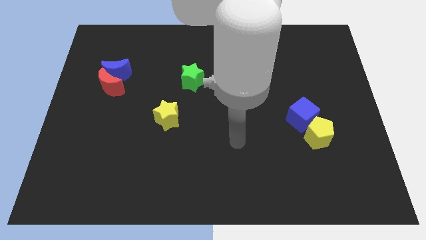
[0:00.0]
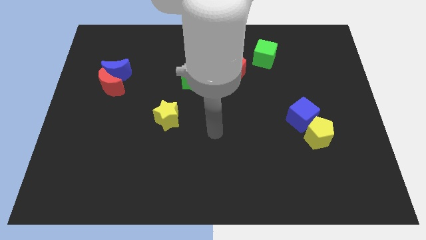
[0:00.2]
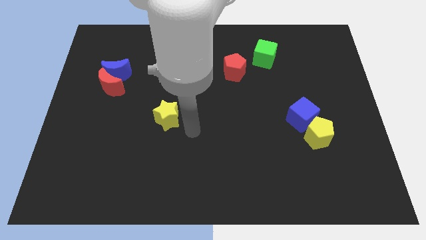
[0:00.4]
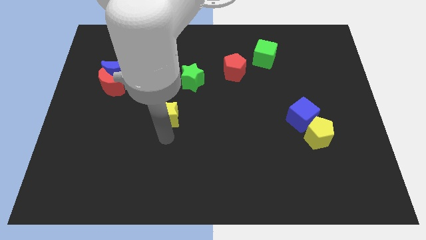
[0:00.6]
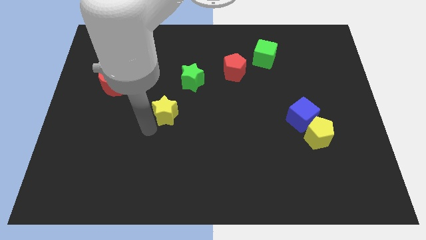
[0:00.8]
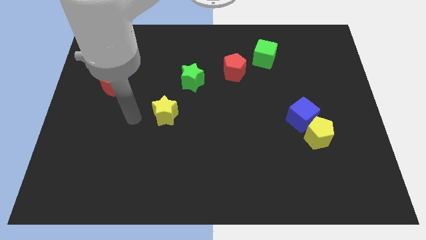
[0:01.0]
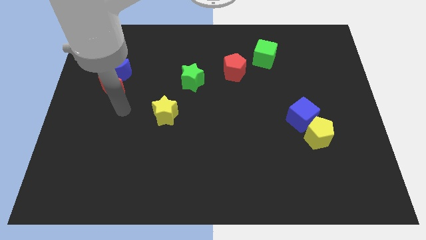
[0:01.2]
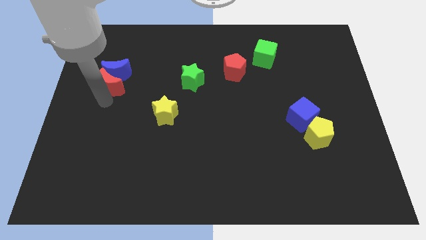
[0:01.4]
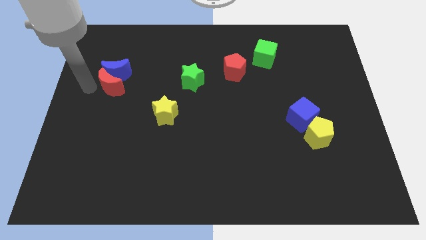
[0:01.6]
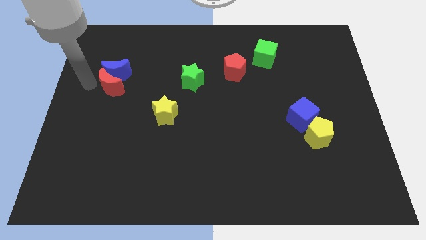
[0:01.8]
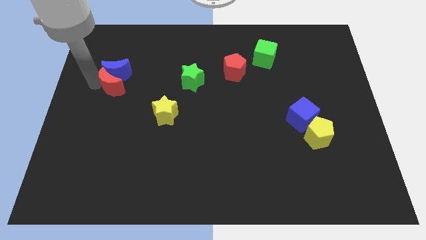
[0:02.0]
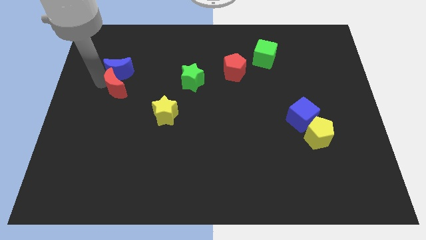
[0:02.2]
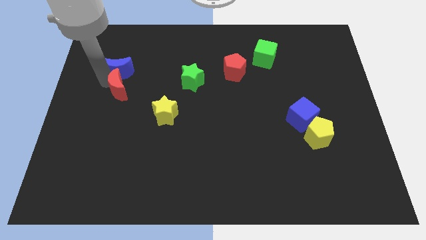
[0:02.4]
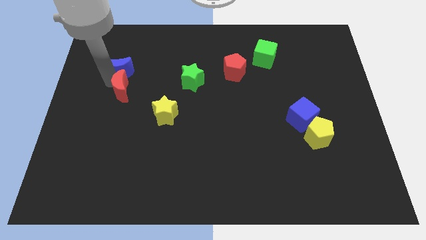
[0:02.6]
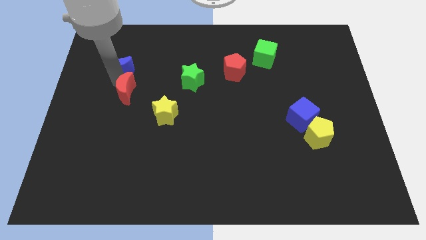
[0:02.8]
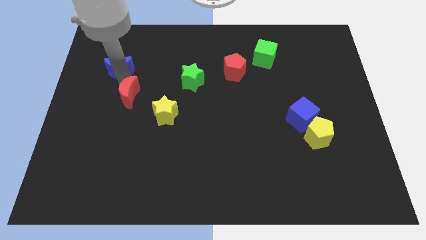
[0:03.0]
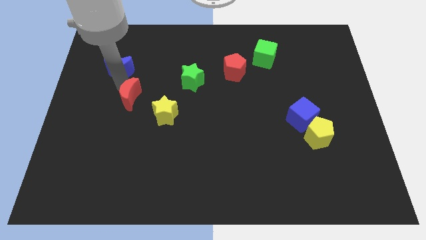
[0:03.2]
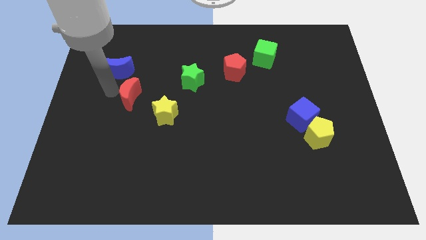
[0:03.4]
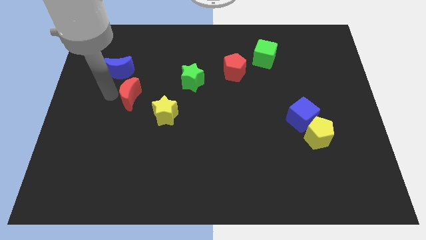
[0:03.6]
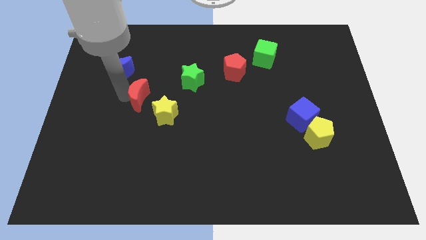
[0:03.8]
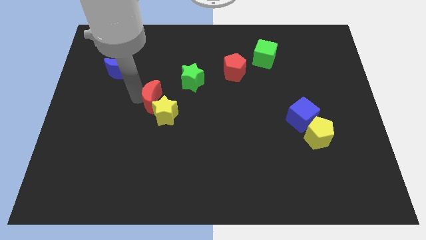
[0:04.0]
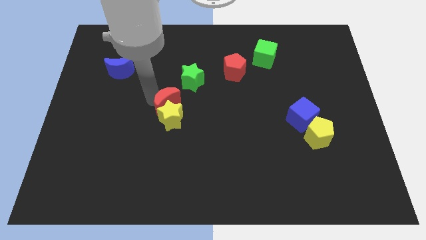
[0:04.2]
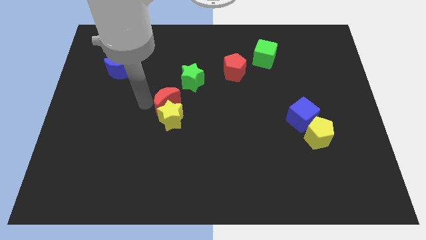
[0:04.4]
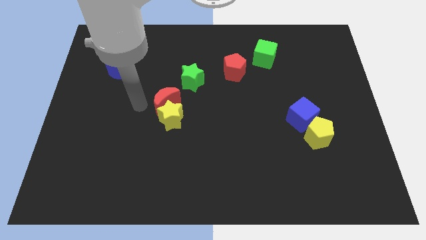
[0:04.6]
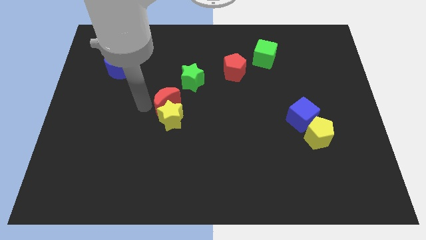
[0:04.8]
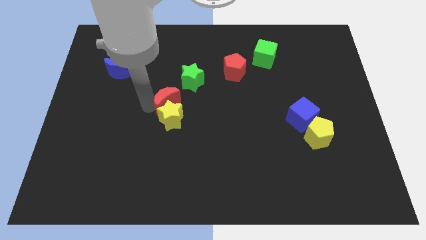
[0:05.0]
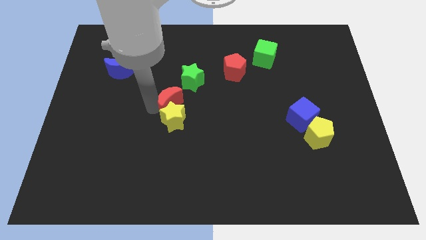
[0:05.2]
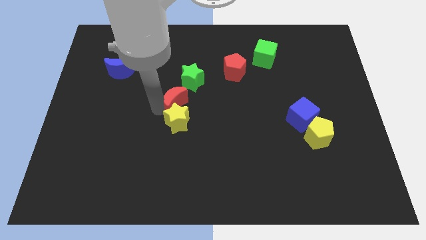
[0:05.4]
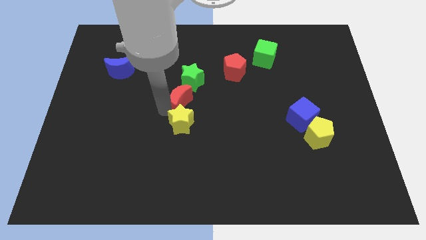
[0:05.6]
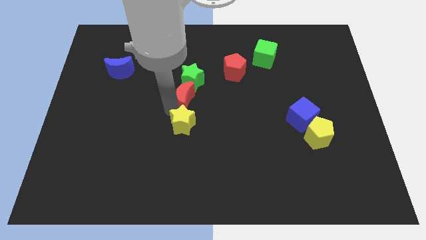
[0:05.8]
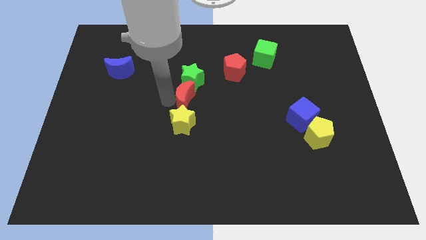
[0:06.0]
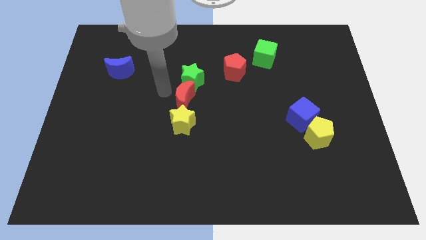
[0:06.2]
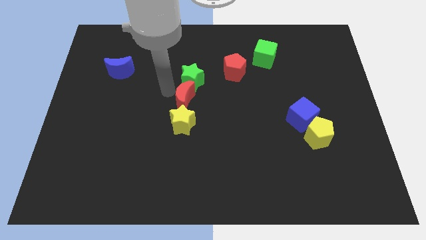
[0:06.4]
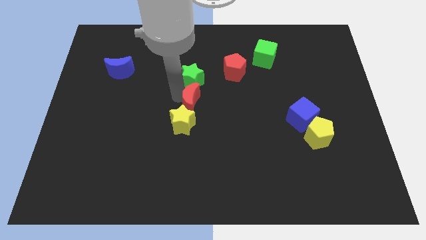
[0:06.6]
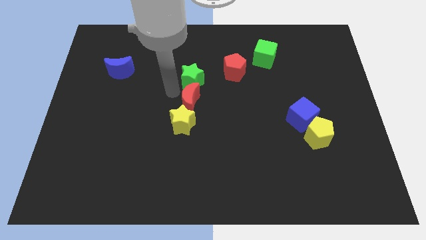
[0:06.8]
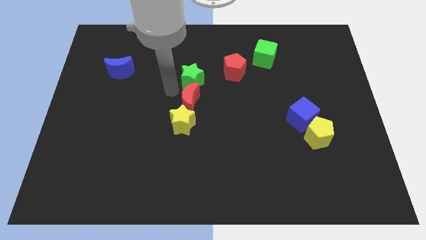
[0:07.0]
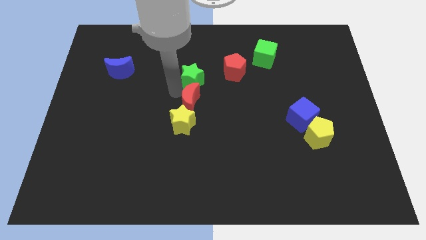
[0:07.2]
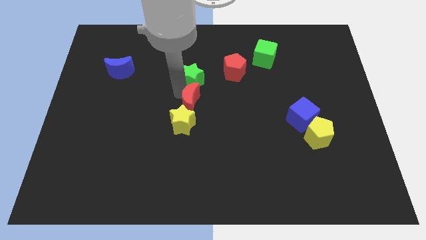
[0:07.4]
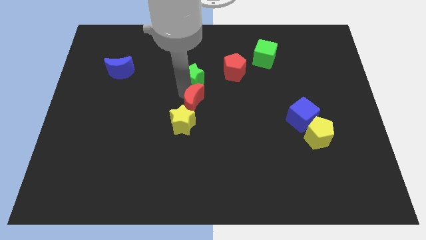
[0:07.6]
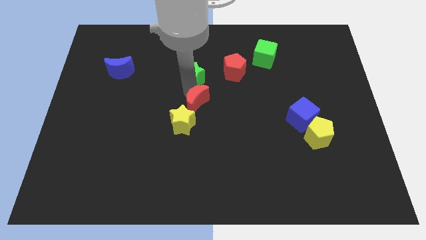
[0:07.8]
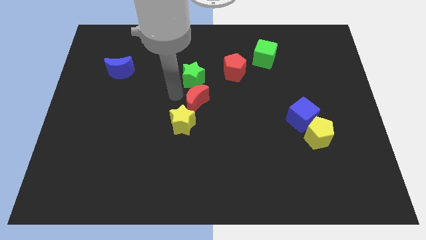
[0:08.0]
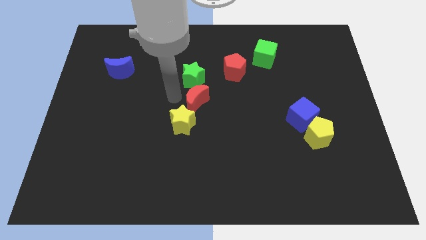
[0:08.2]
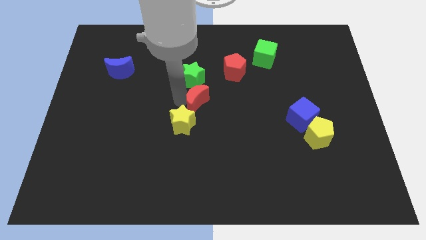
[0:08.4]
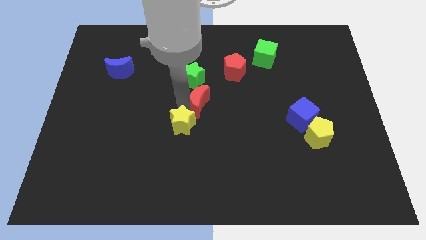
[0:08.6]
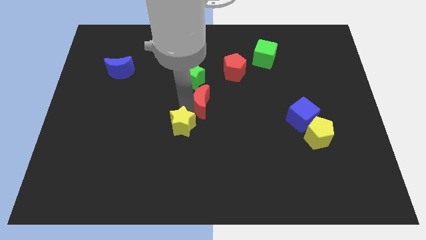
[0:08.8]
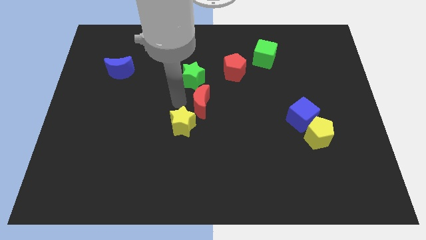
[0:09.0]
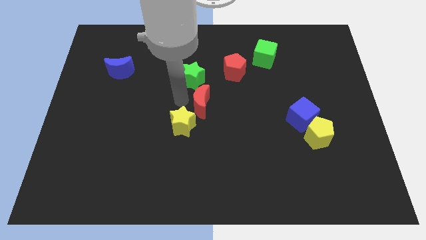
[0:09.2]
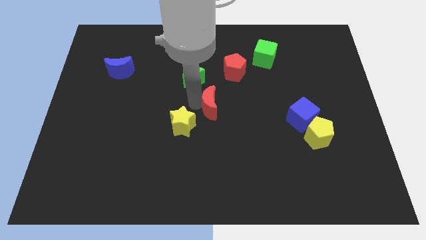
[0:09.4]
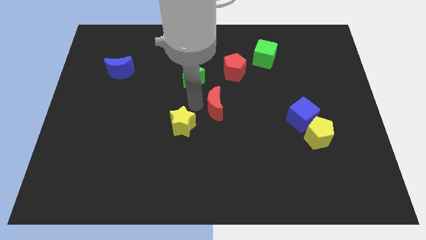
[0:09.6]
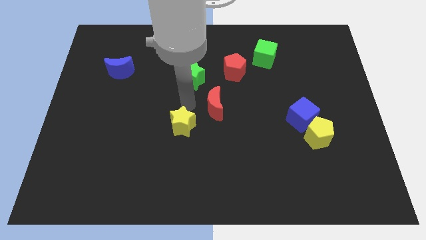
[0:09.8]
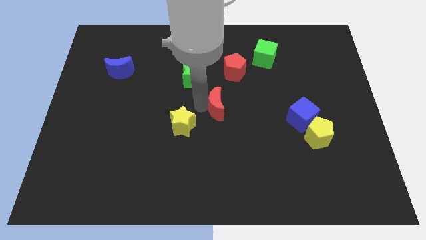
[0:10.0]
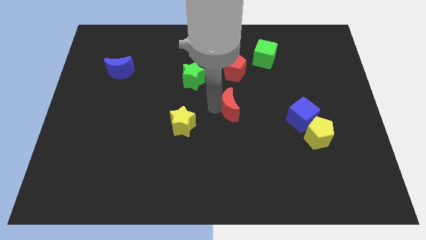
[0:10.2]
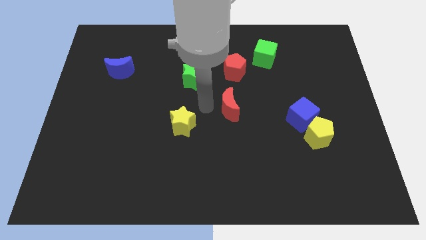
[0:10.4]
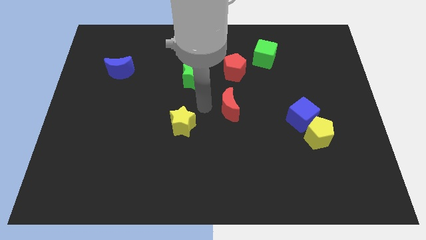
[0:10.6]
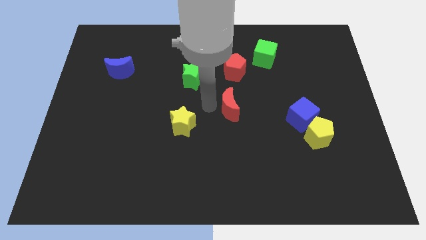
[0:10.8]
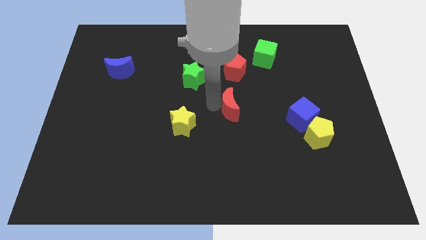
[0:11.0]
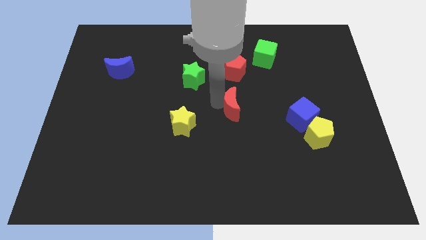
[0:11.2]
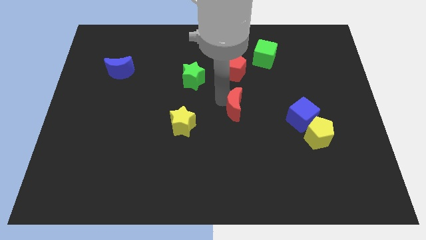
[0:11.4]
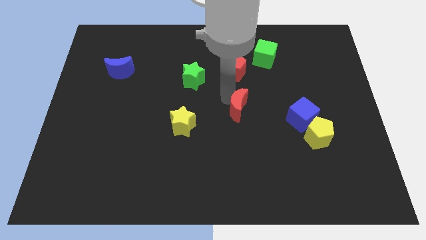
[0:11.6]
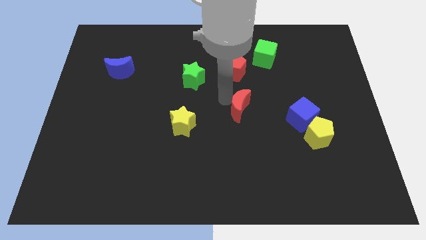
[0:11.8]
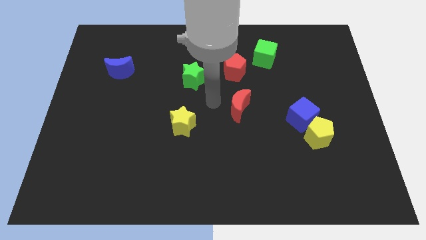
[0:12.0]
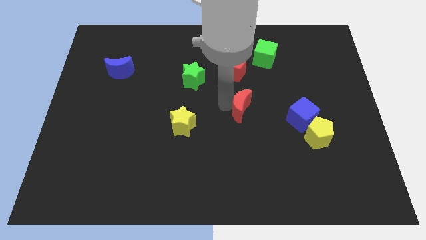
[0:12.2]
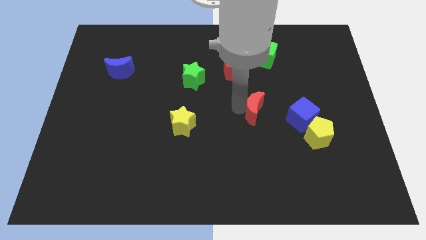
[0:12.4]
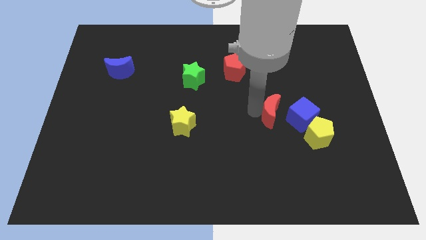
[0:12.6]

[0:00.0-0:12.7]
slide the red moon diagonally up and to the left of the yellow pentagon
